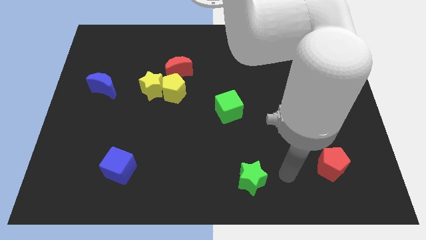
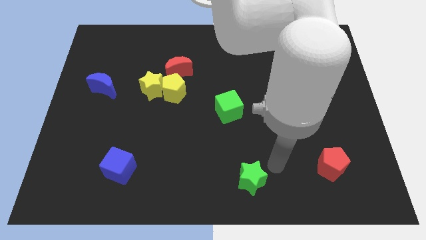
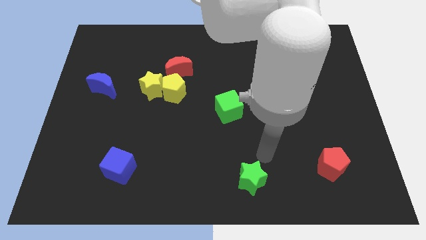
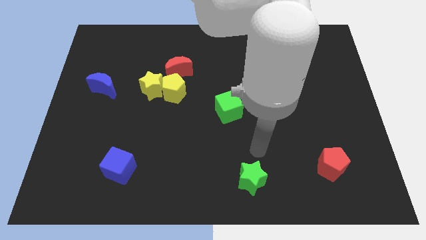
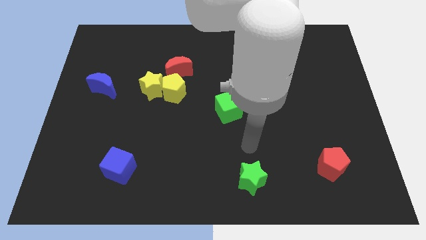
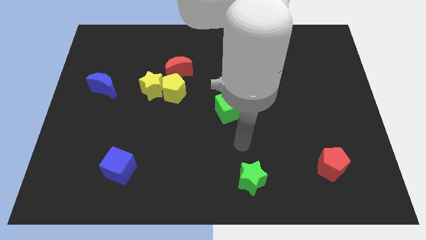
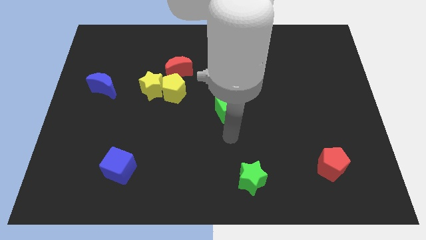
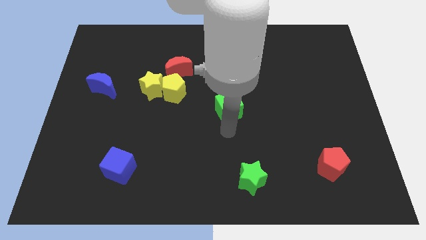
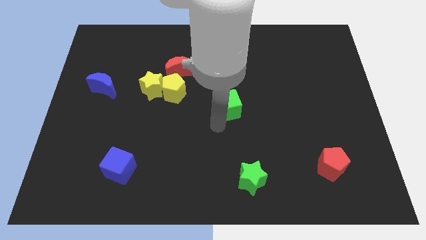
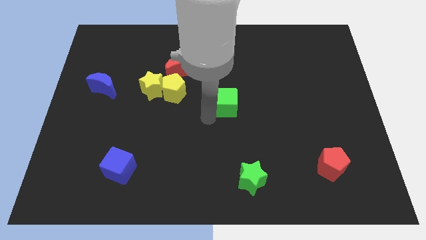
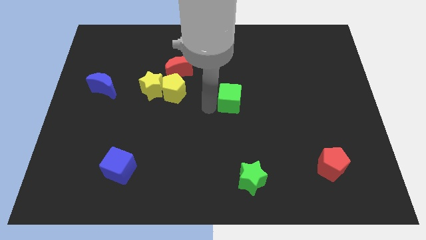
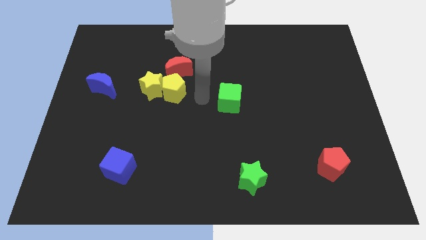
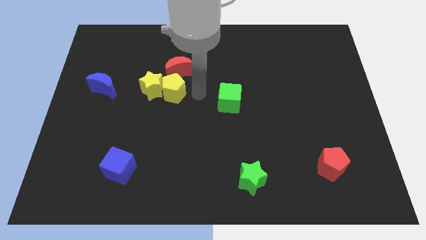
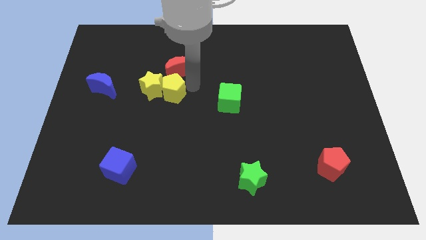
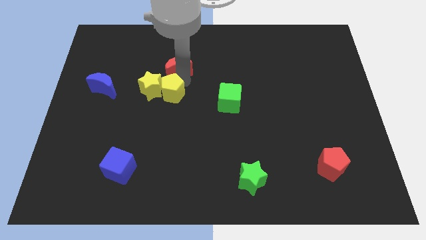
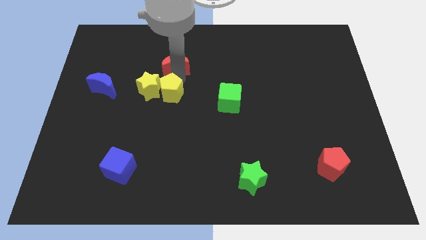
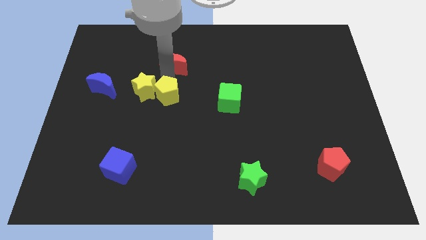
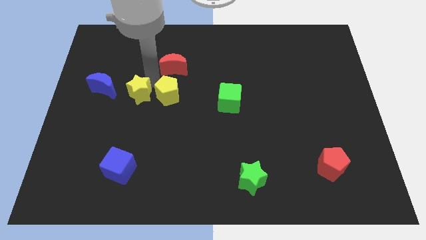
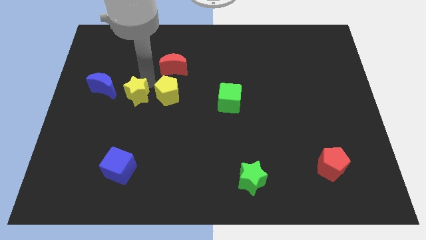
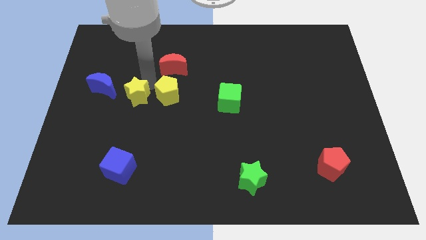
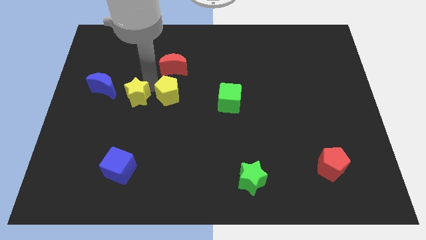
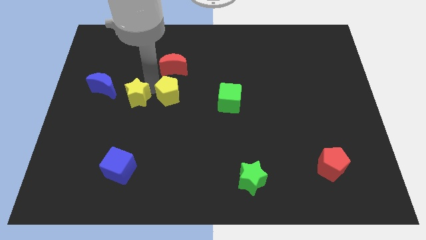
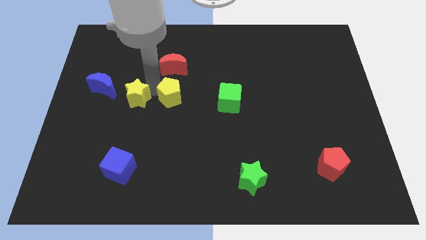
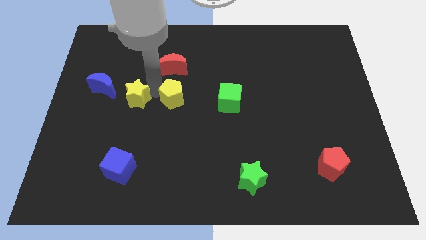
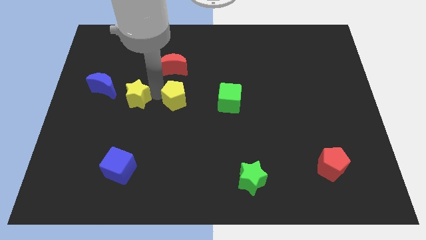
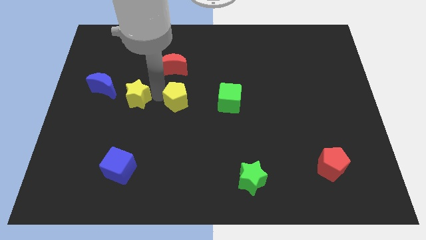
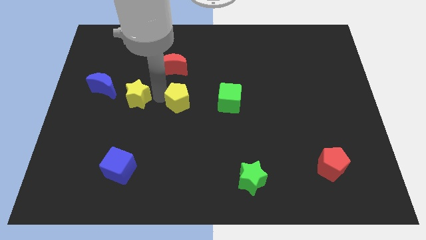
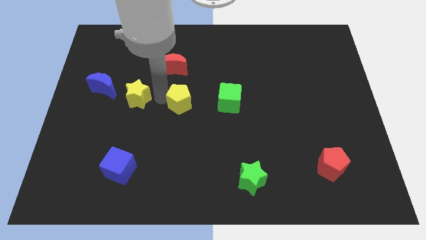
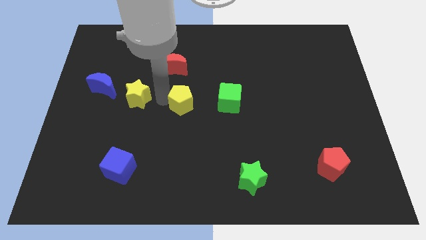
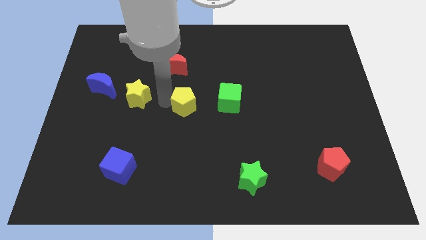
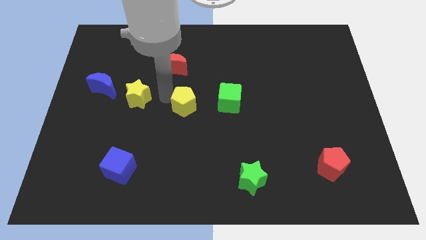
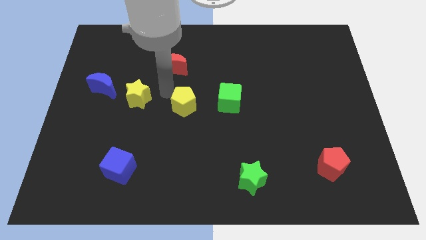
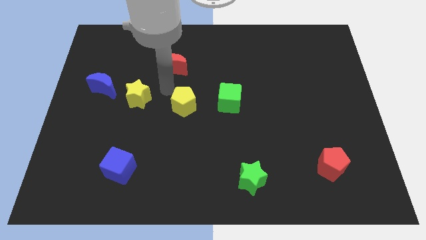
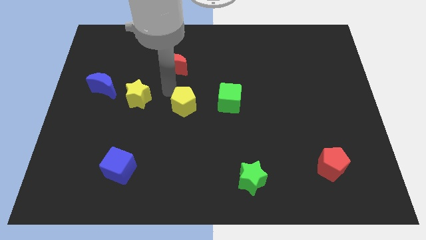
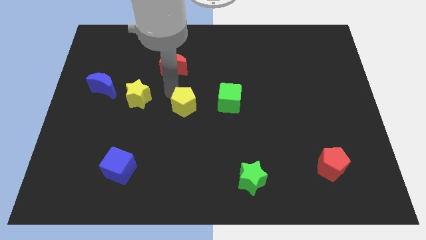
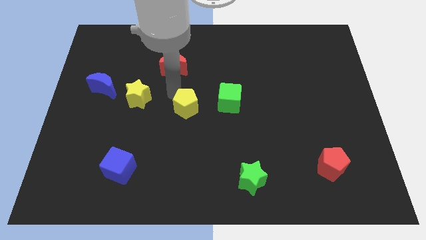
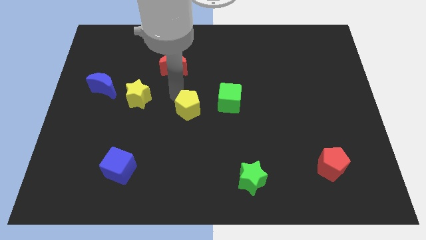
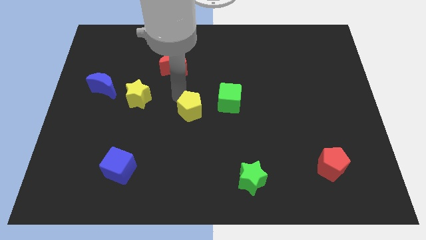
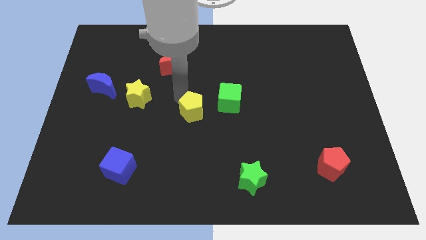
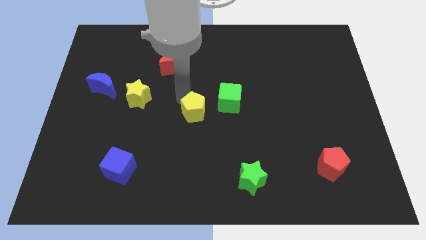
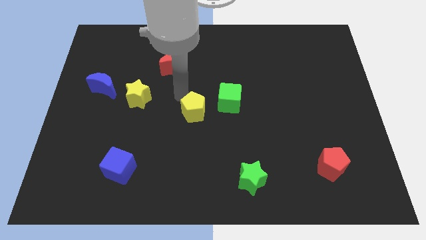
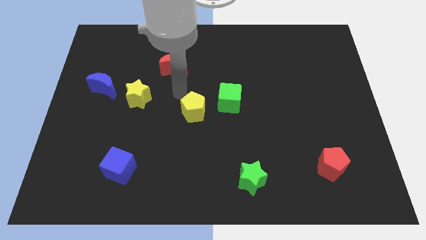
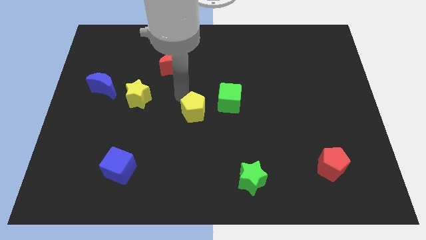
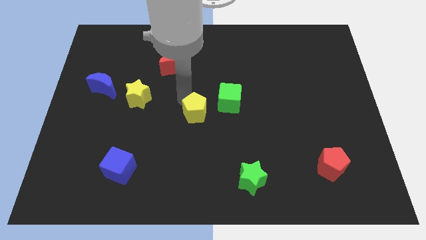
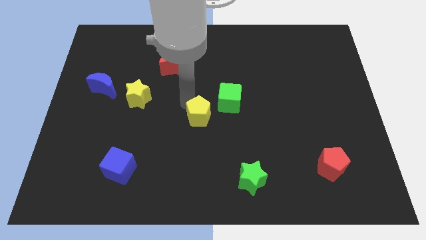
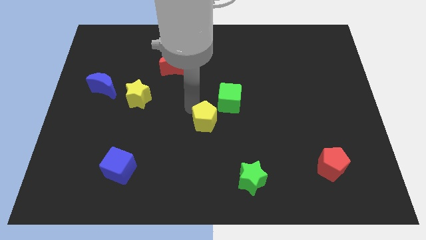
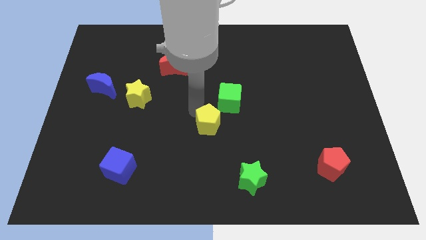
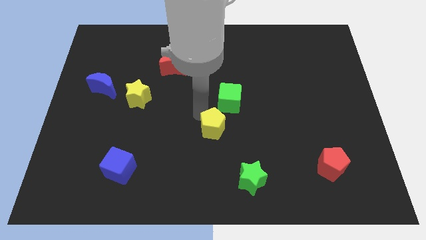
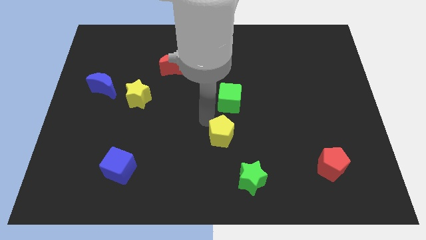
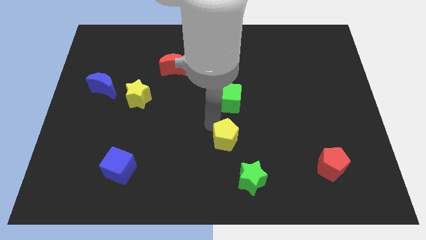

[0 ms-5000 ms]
push the yellow pentagon to the top left of the green star

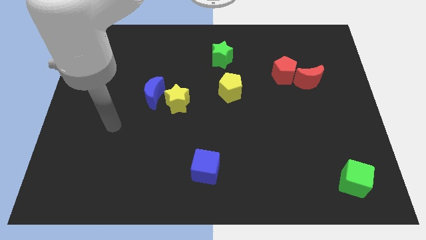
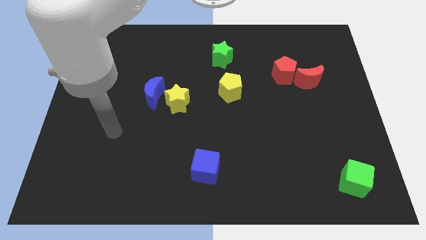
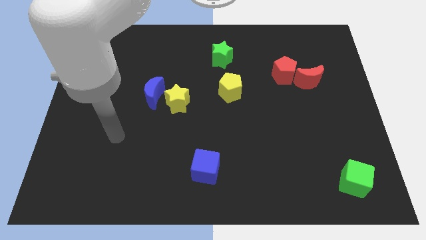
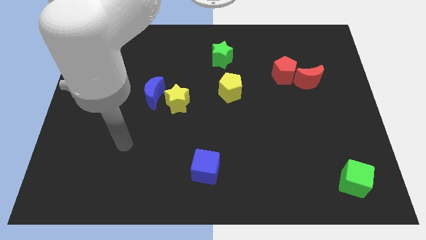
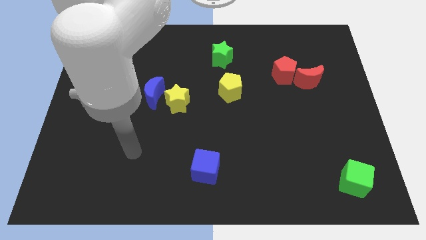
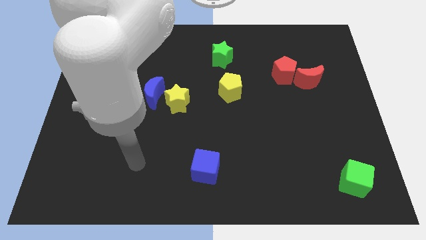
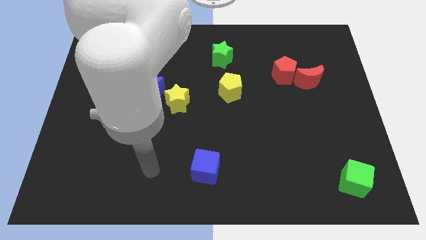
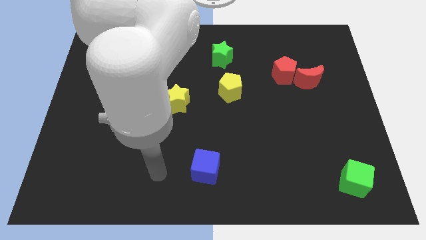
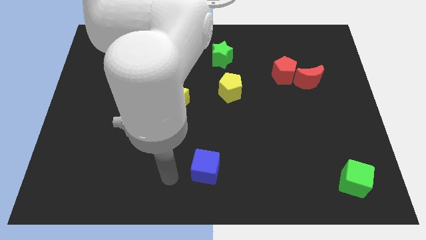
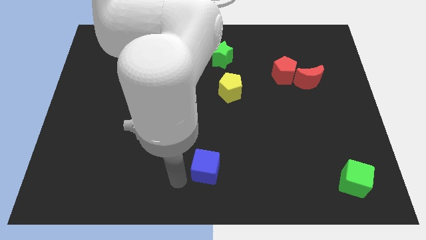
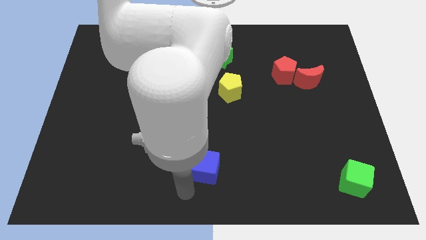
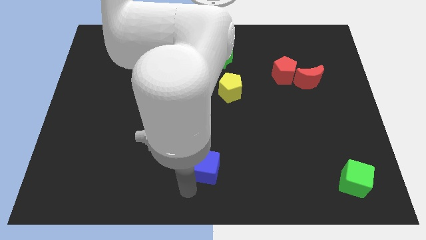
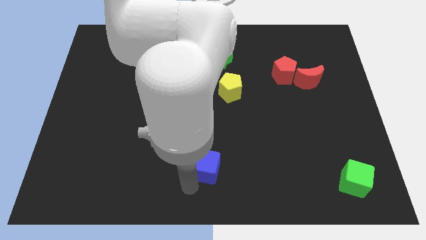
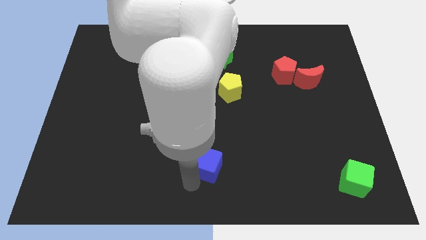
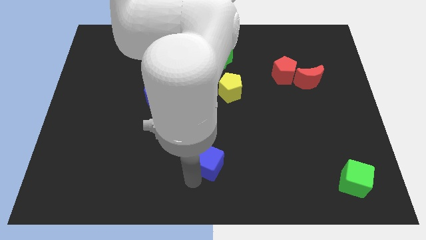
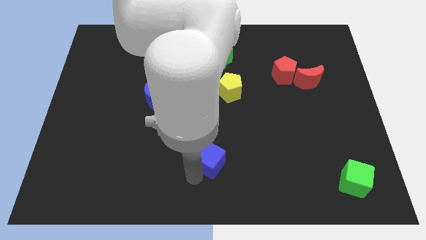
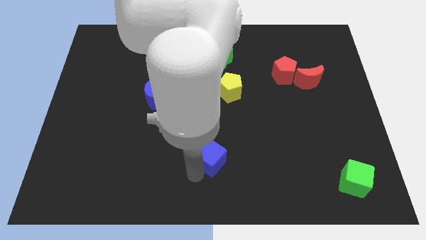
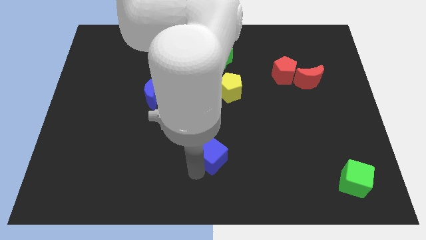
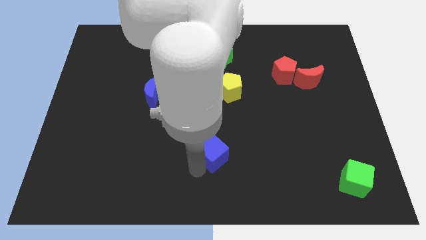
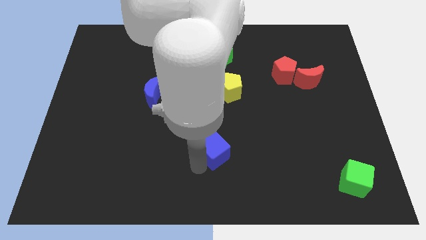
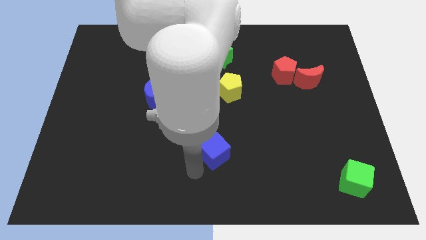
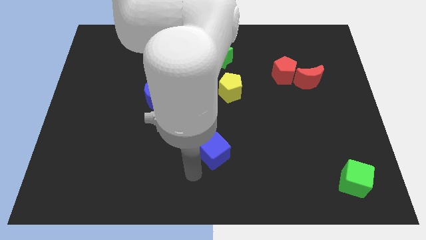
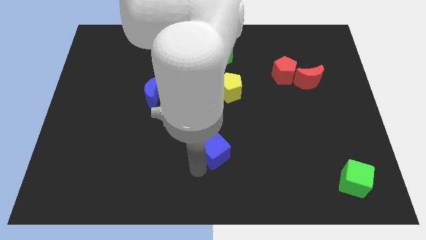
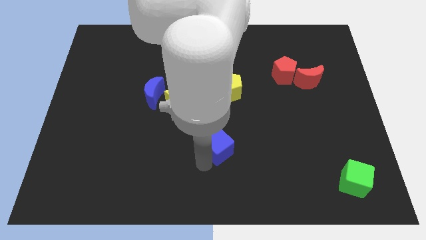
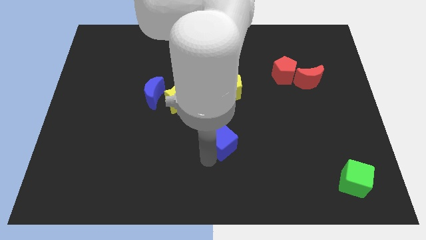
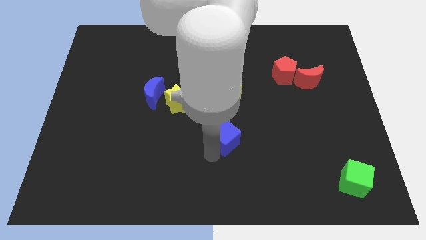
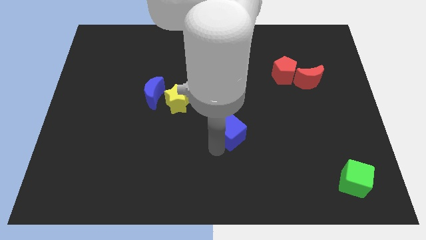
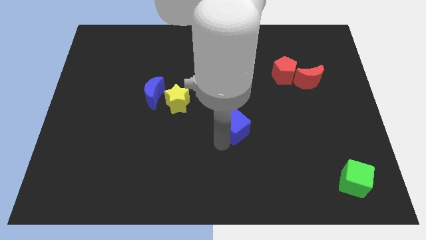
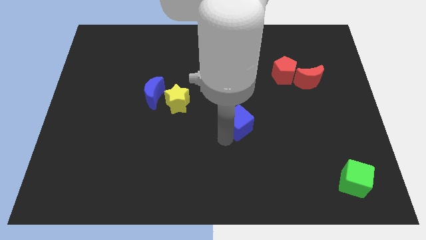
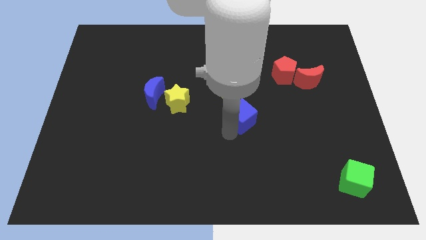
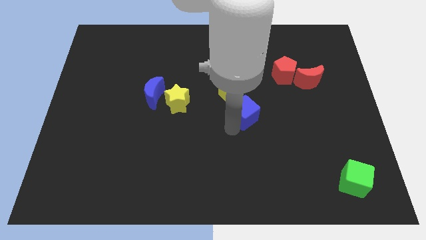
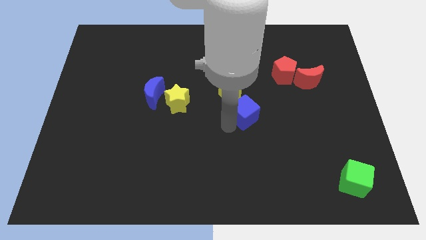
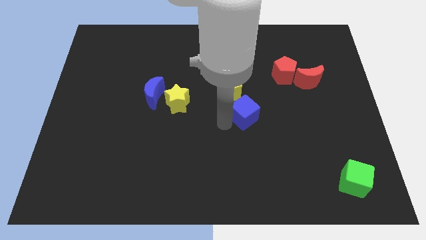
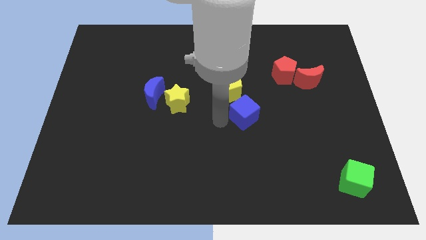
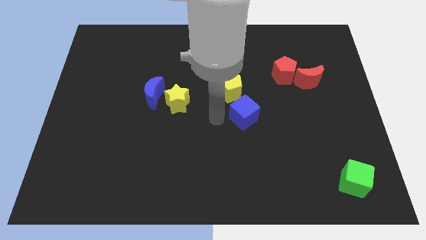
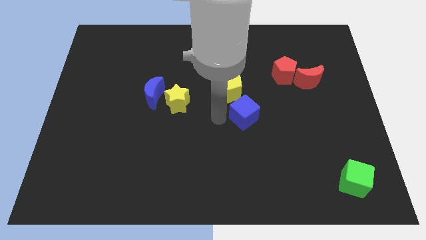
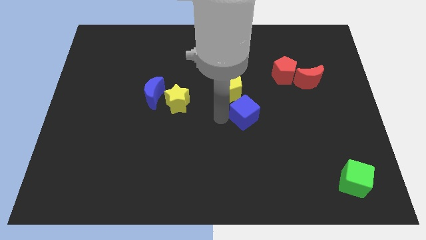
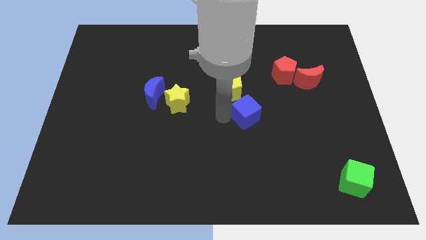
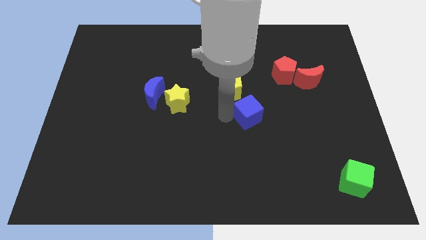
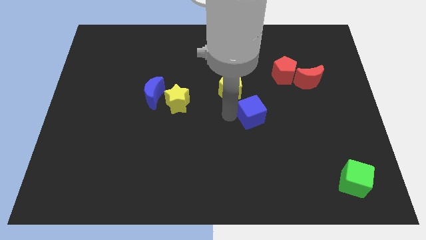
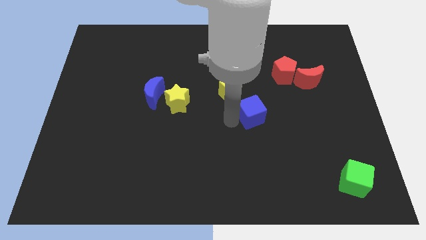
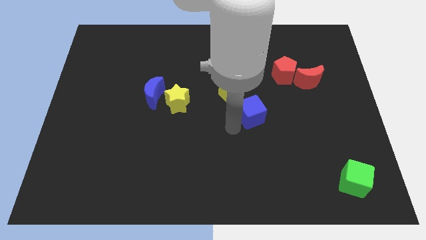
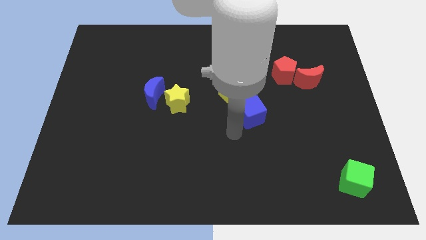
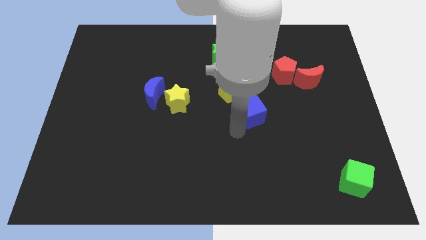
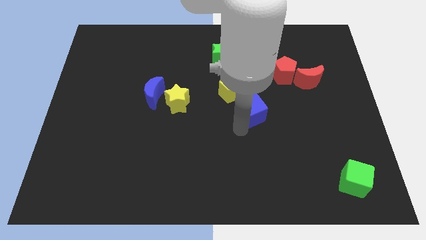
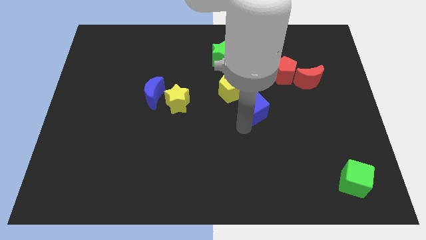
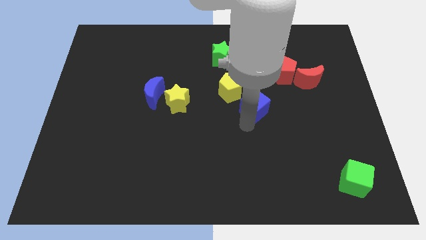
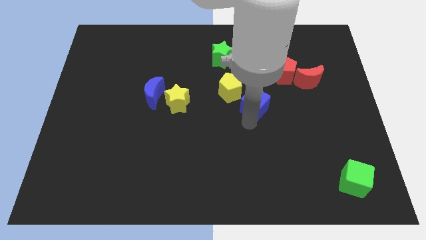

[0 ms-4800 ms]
push the blue cube right of the yellow pentagon
